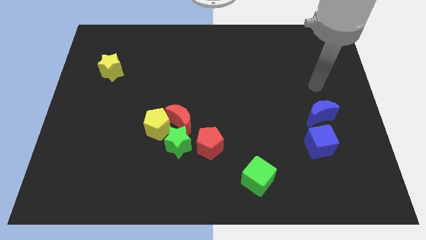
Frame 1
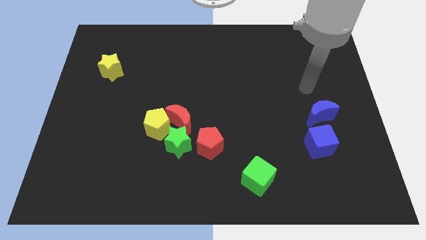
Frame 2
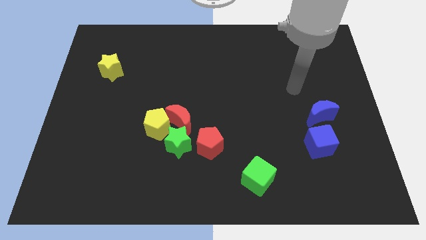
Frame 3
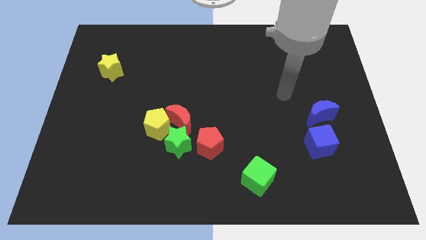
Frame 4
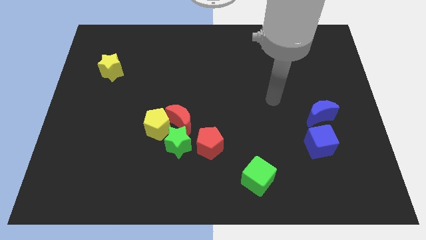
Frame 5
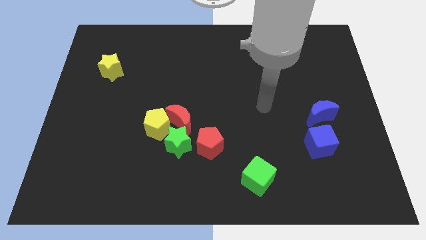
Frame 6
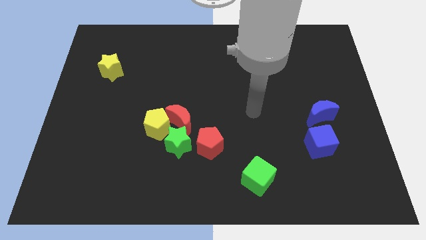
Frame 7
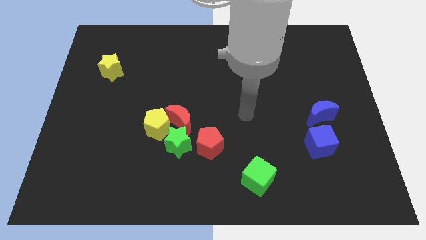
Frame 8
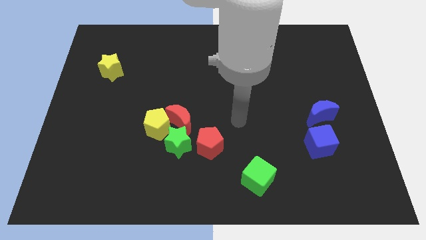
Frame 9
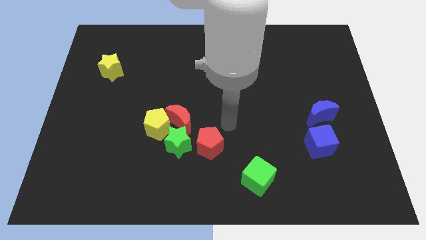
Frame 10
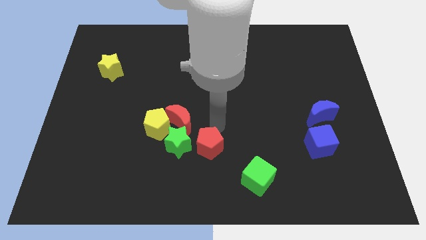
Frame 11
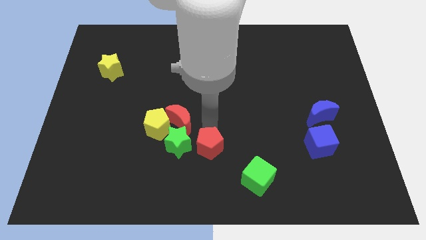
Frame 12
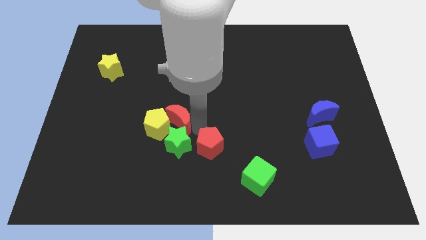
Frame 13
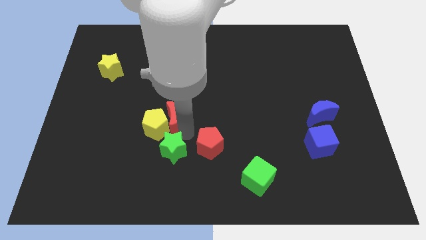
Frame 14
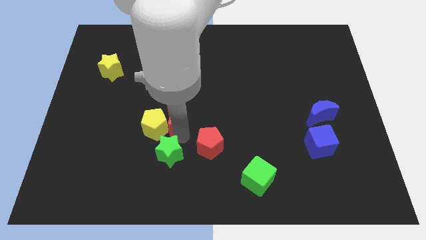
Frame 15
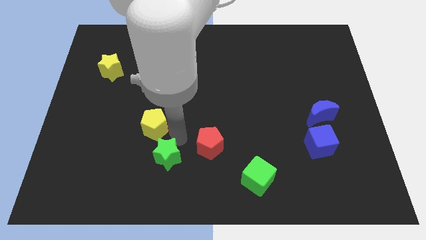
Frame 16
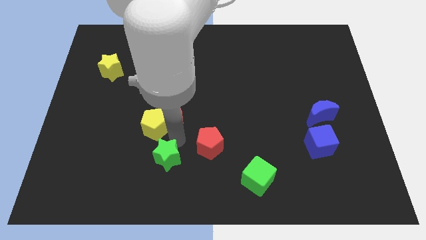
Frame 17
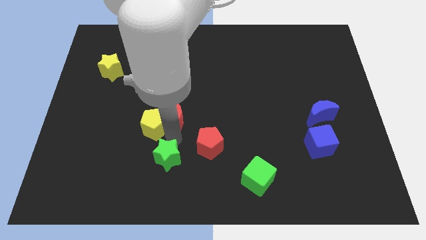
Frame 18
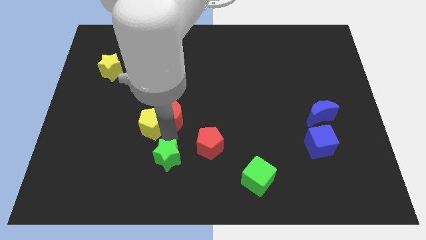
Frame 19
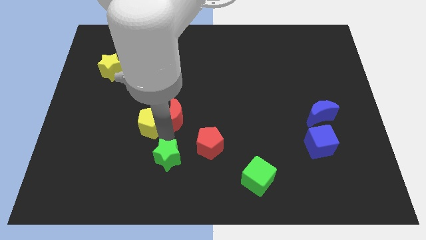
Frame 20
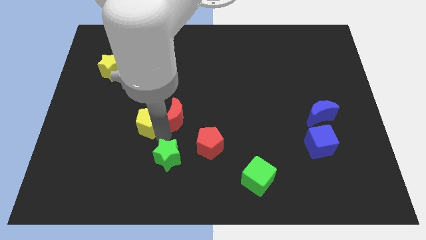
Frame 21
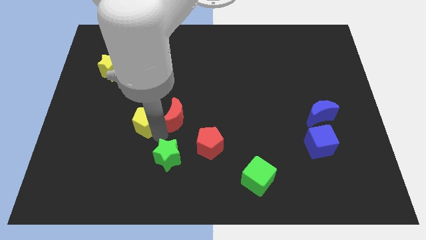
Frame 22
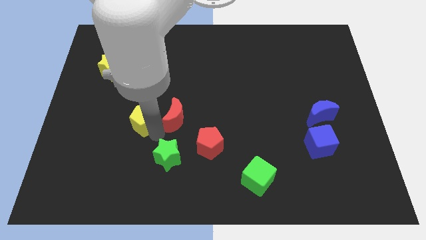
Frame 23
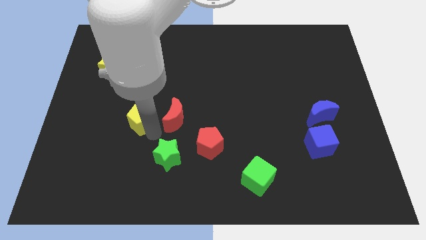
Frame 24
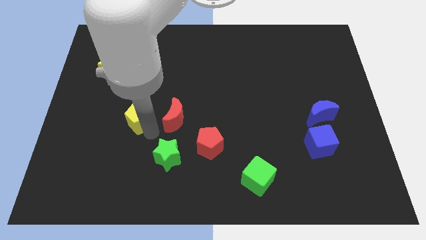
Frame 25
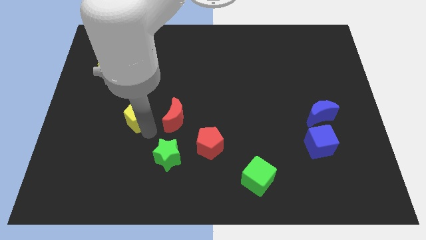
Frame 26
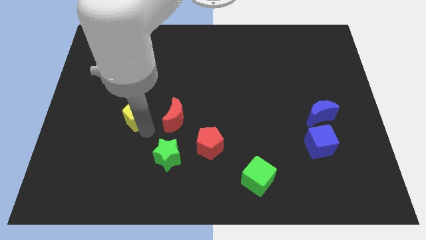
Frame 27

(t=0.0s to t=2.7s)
move the yellow pentagon away from the red moon and green star

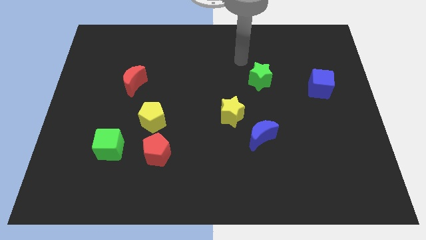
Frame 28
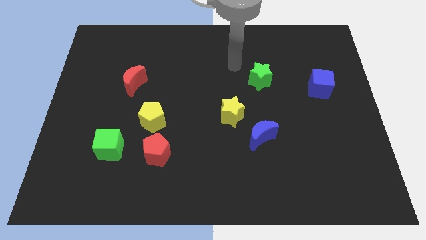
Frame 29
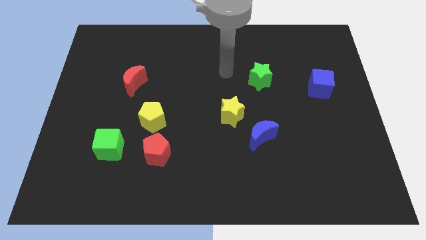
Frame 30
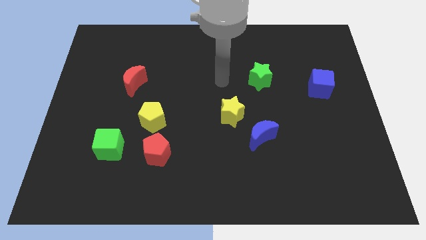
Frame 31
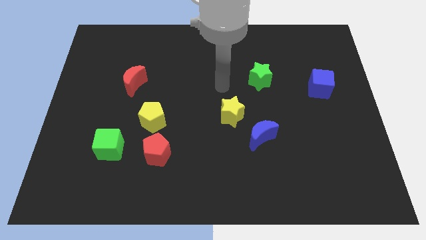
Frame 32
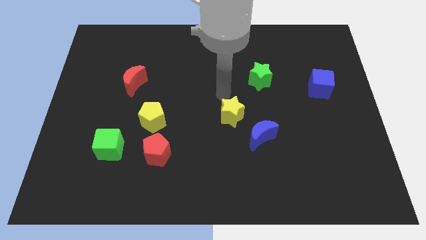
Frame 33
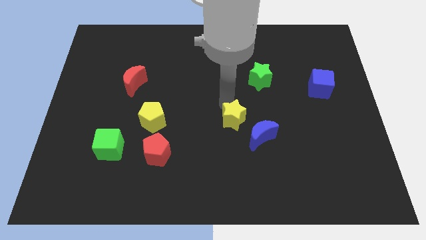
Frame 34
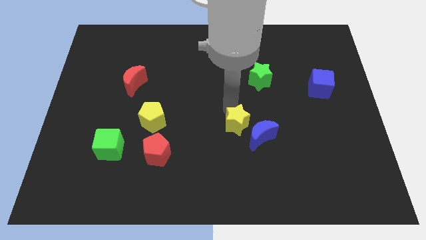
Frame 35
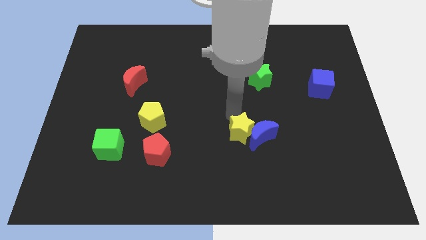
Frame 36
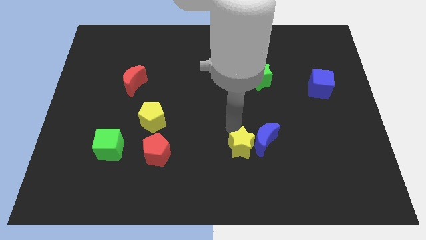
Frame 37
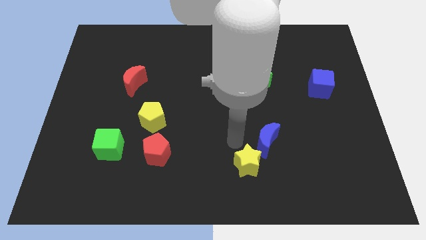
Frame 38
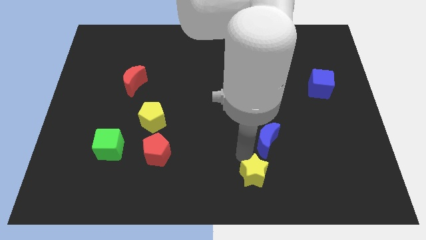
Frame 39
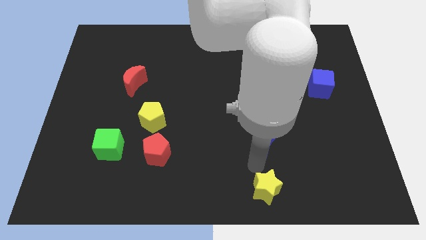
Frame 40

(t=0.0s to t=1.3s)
move the blue moon away from the yellow star

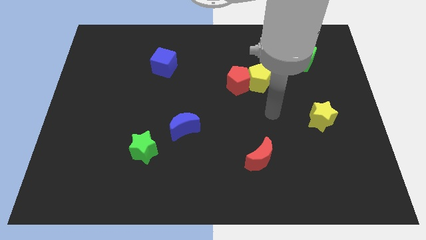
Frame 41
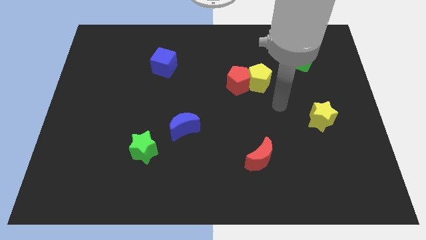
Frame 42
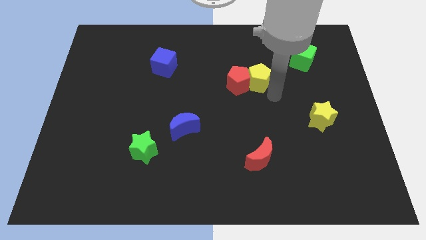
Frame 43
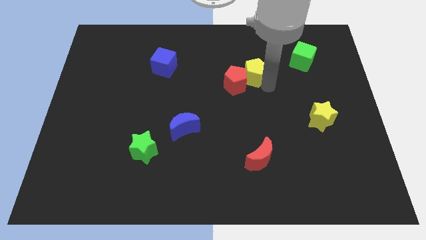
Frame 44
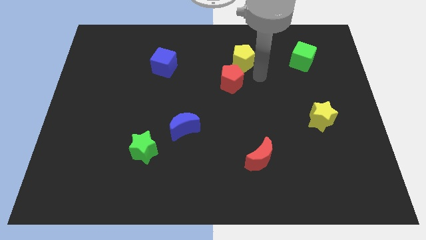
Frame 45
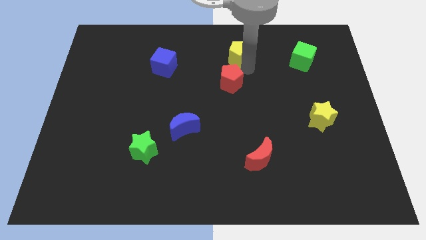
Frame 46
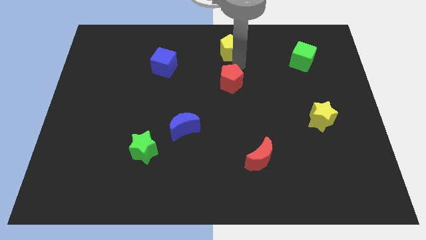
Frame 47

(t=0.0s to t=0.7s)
separate the red pentagon from the yellow pentagon

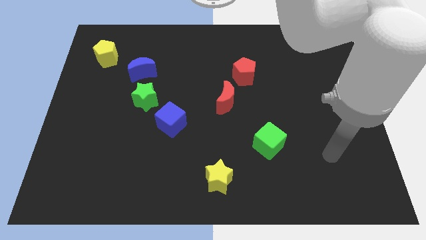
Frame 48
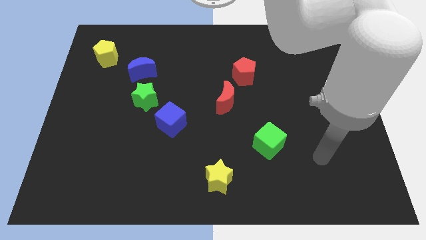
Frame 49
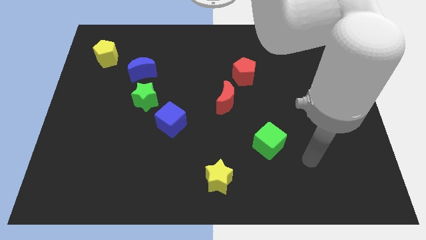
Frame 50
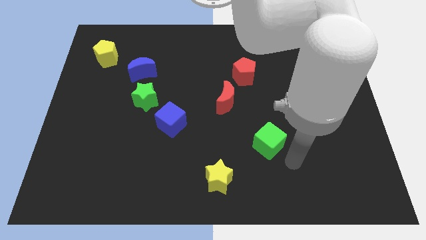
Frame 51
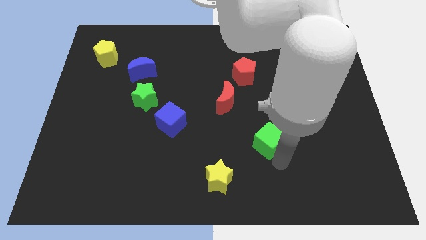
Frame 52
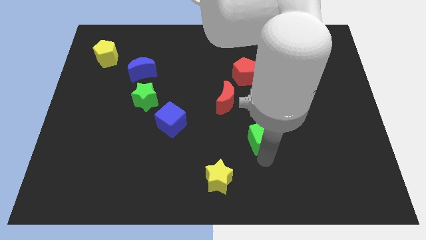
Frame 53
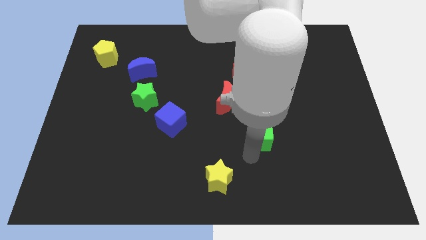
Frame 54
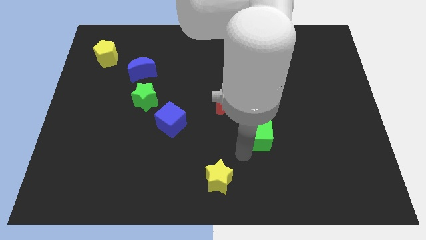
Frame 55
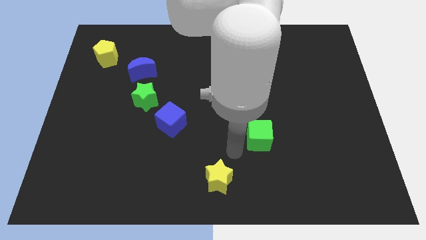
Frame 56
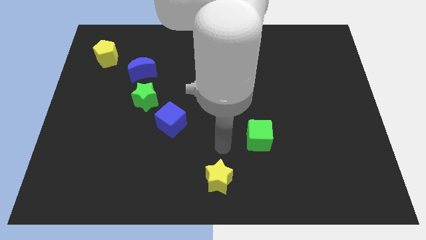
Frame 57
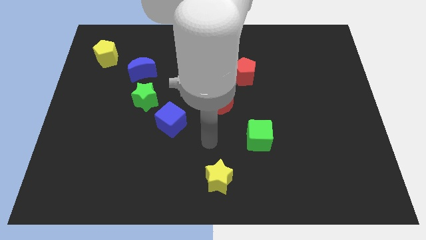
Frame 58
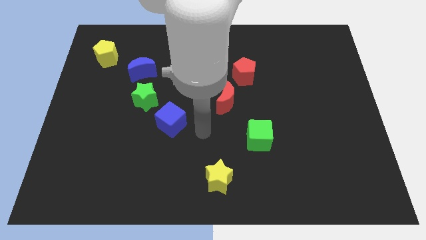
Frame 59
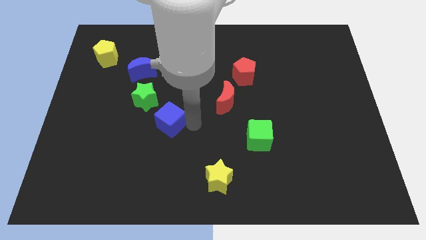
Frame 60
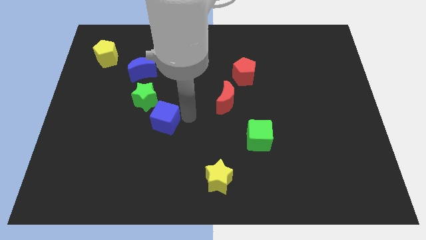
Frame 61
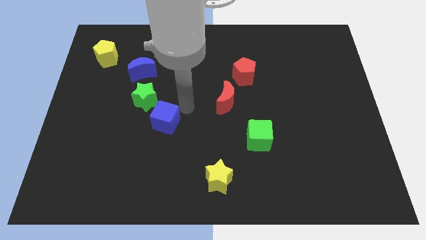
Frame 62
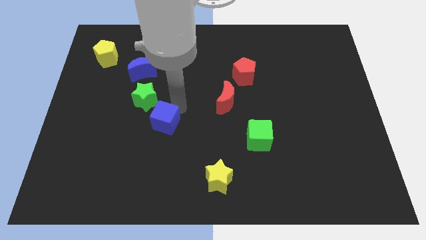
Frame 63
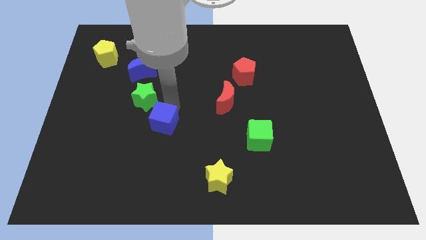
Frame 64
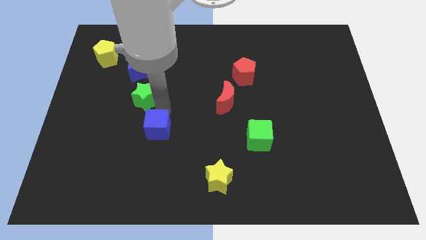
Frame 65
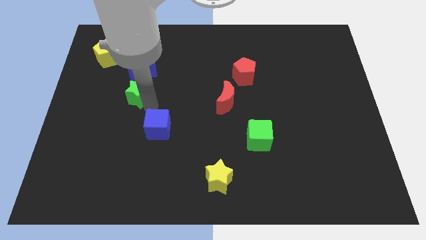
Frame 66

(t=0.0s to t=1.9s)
pull the blue cube apart from the green star

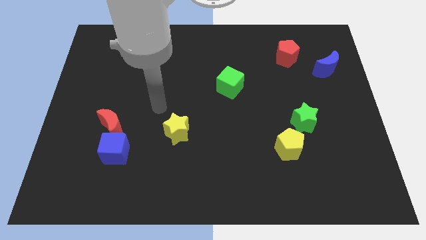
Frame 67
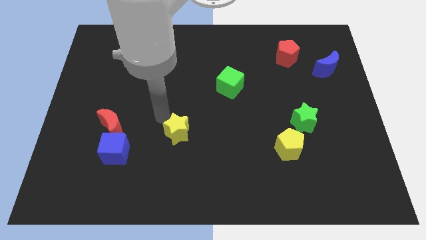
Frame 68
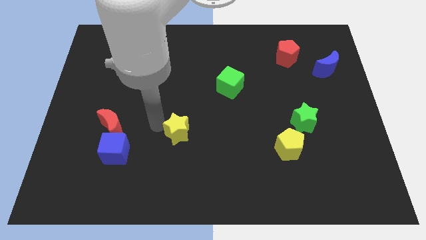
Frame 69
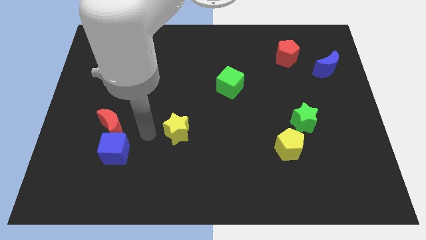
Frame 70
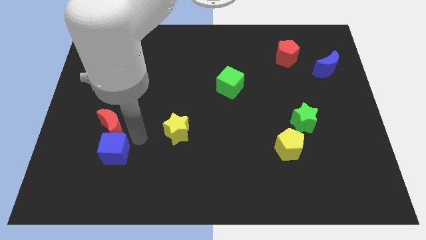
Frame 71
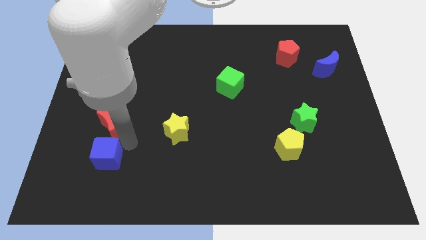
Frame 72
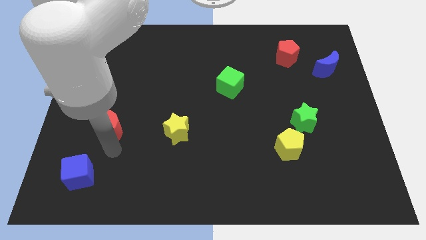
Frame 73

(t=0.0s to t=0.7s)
pull the red moon apart from the blue cube

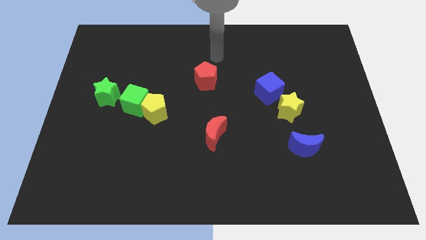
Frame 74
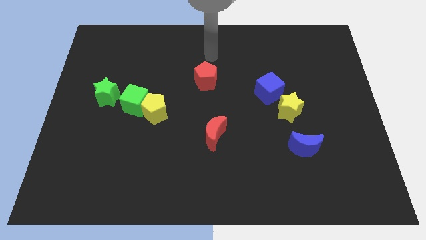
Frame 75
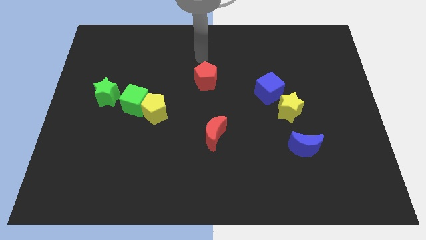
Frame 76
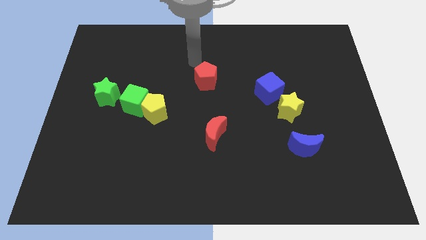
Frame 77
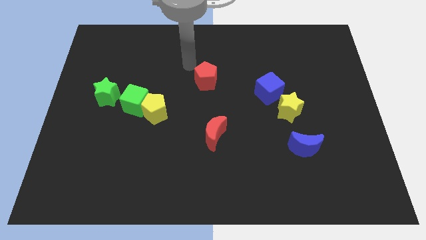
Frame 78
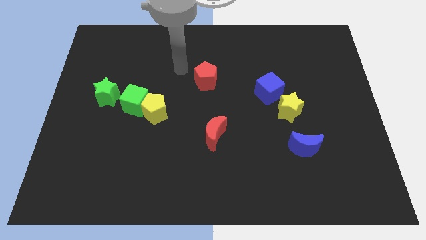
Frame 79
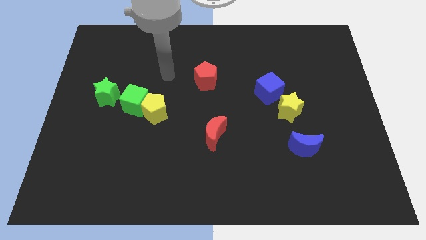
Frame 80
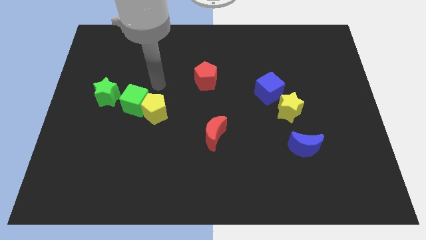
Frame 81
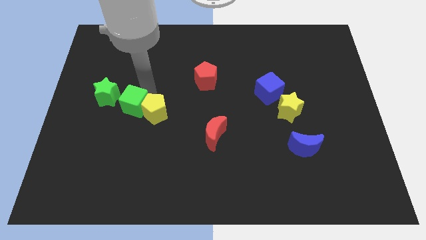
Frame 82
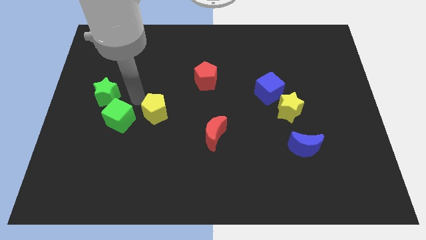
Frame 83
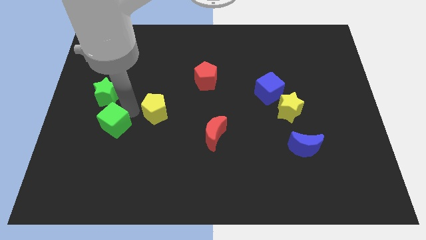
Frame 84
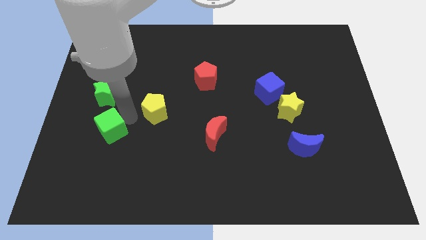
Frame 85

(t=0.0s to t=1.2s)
pull the yellow pentagon apart from the green cube

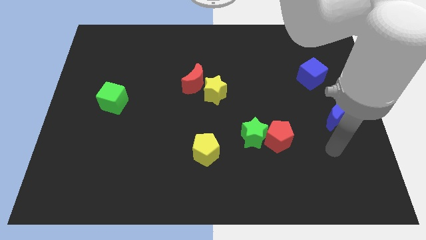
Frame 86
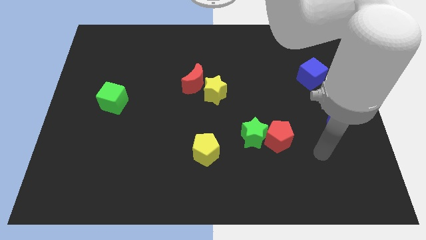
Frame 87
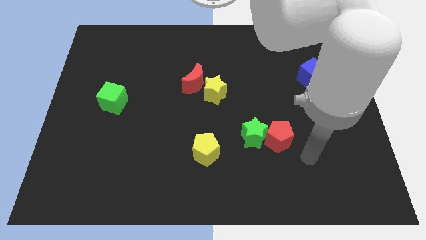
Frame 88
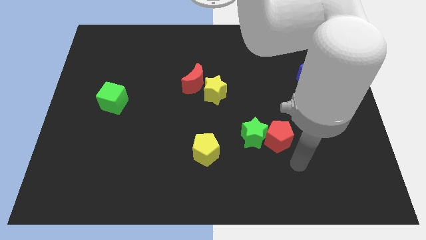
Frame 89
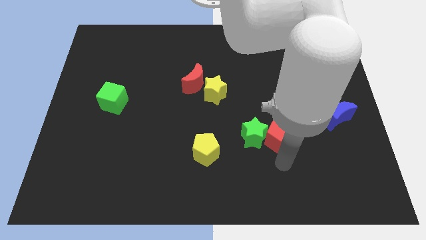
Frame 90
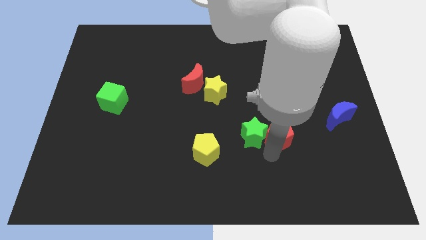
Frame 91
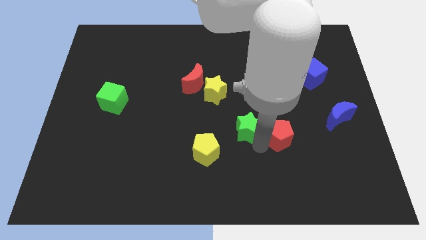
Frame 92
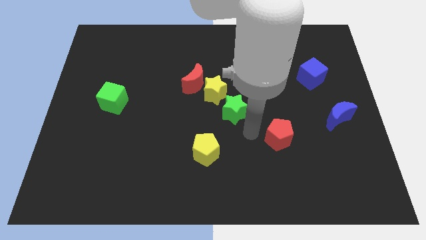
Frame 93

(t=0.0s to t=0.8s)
separate the red pentagon from the green star
